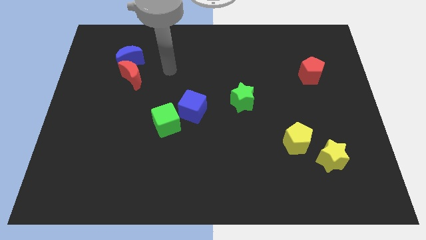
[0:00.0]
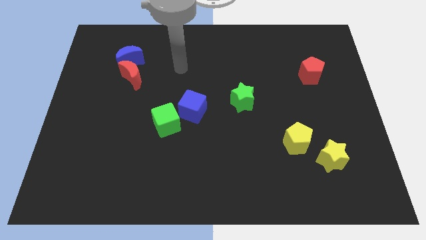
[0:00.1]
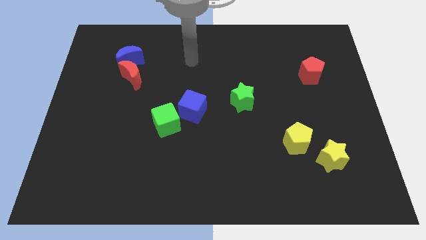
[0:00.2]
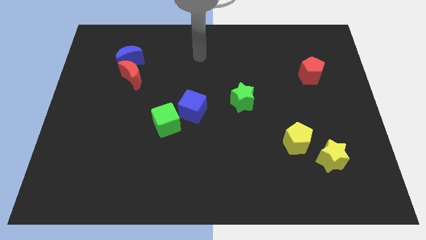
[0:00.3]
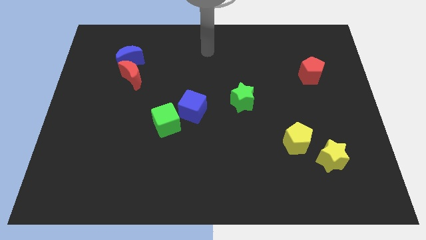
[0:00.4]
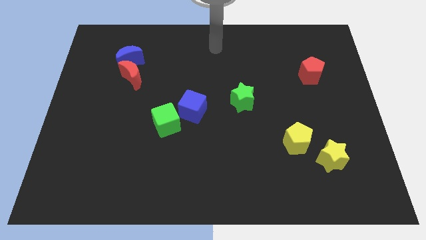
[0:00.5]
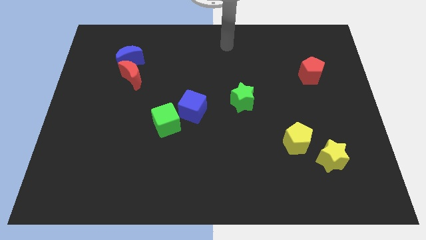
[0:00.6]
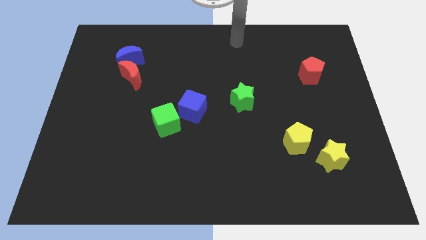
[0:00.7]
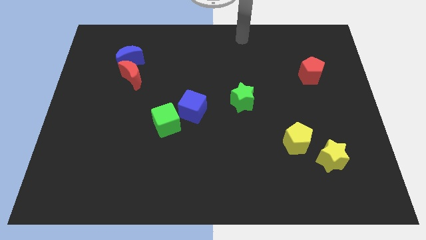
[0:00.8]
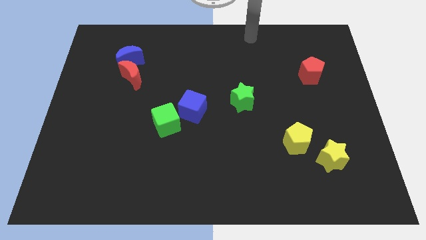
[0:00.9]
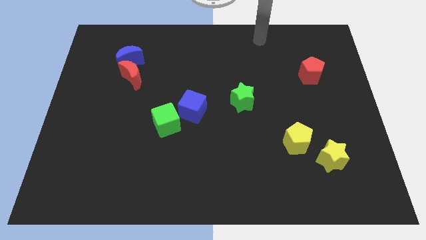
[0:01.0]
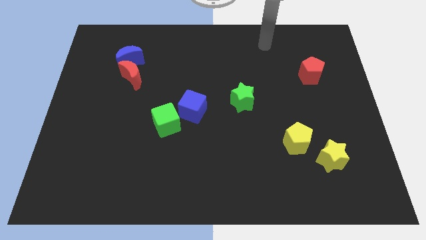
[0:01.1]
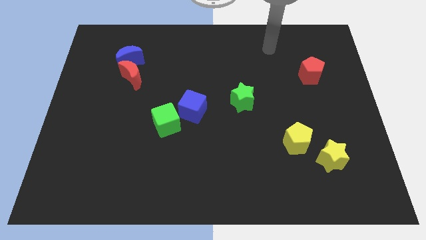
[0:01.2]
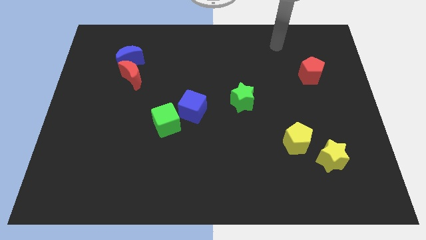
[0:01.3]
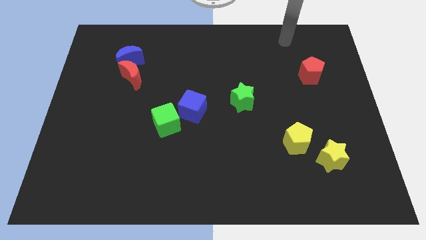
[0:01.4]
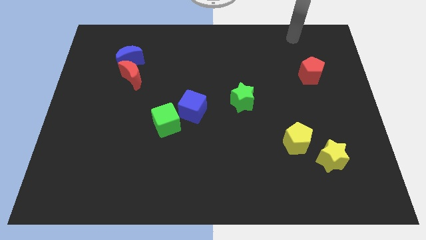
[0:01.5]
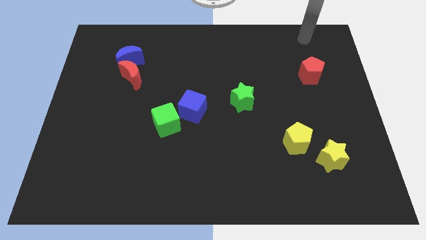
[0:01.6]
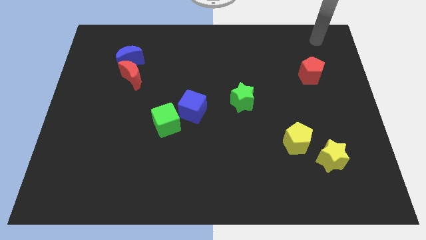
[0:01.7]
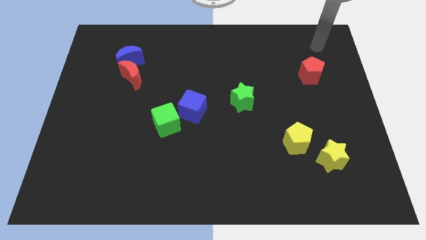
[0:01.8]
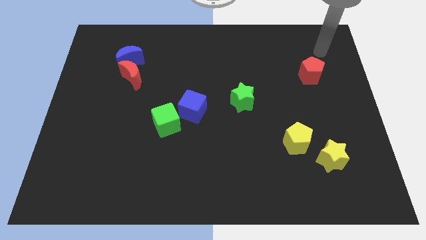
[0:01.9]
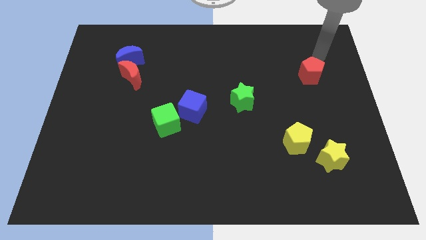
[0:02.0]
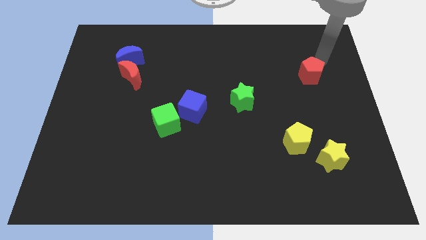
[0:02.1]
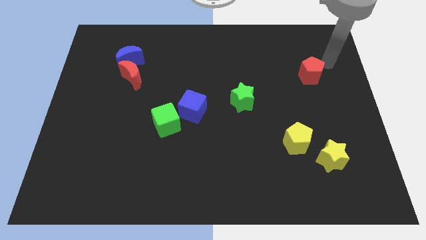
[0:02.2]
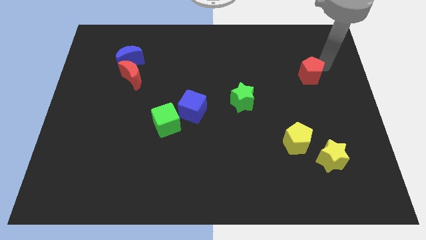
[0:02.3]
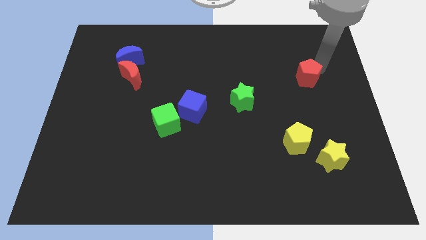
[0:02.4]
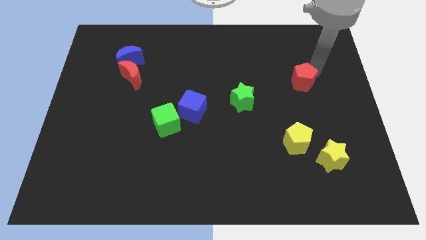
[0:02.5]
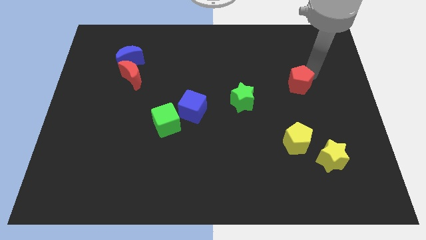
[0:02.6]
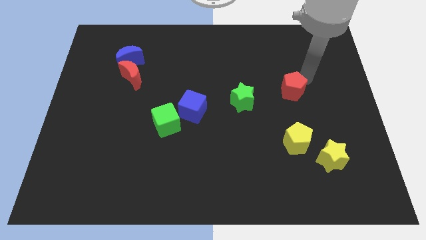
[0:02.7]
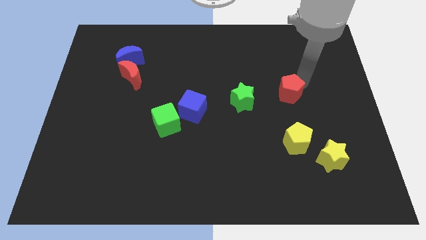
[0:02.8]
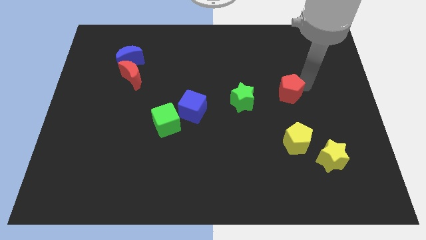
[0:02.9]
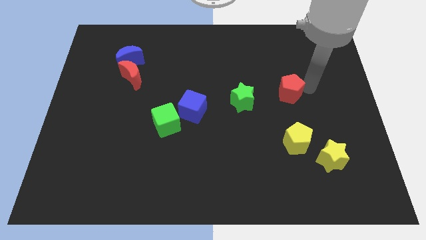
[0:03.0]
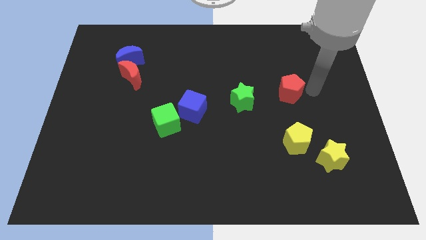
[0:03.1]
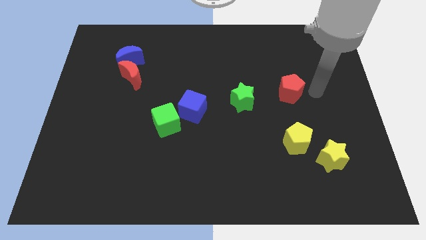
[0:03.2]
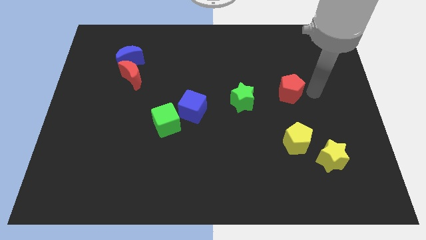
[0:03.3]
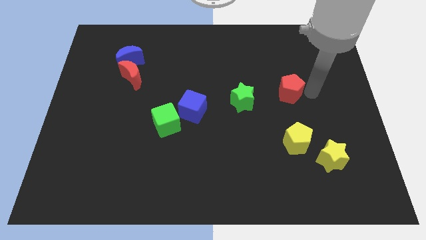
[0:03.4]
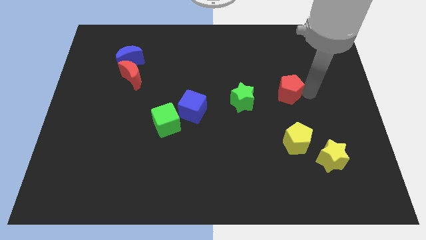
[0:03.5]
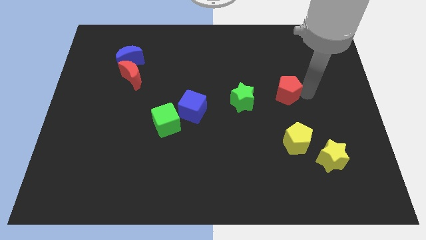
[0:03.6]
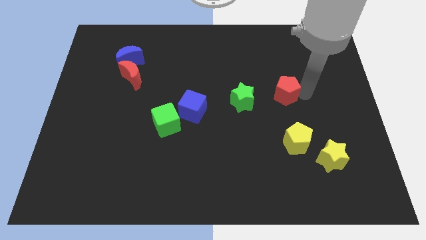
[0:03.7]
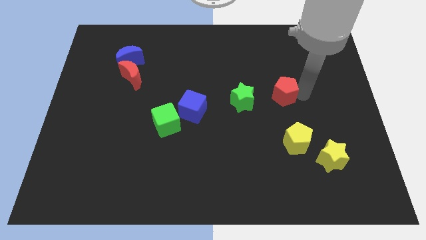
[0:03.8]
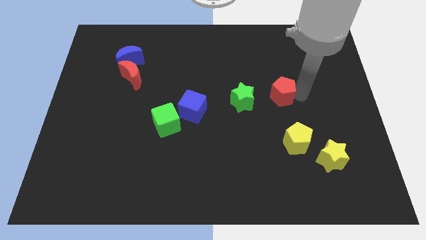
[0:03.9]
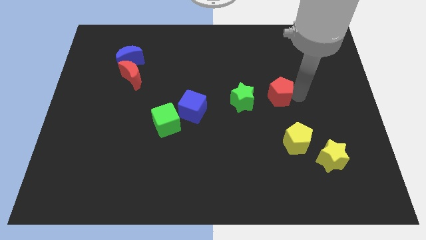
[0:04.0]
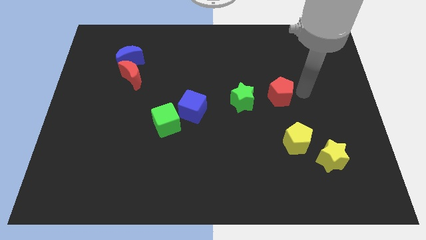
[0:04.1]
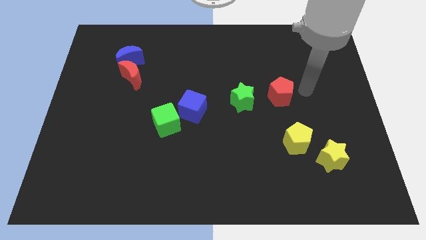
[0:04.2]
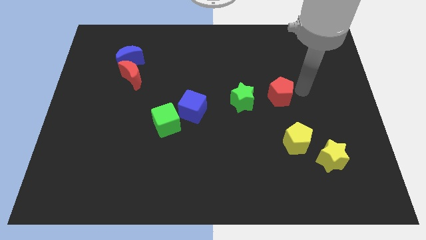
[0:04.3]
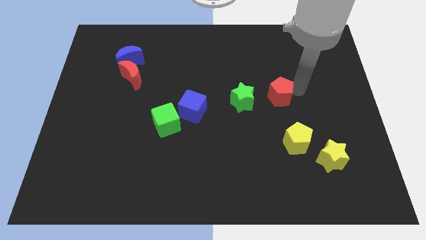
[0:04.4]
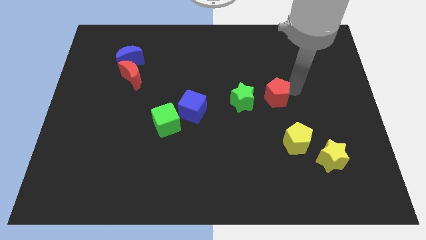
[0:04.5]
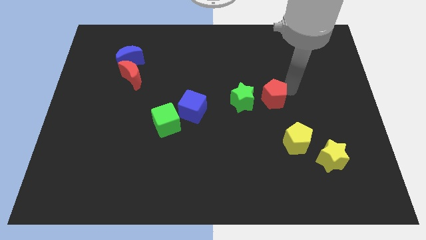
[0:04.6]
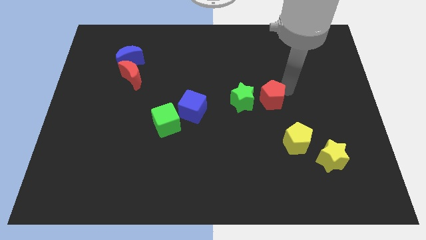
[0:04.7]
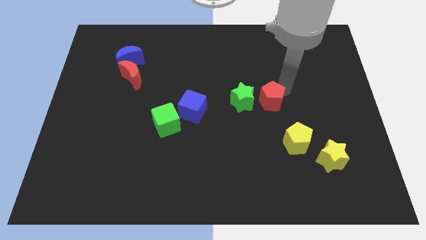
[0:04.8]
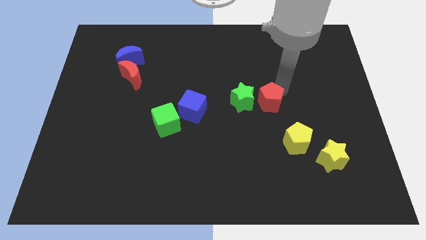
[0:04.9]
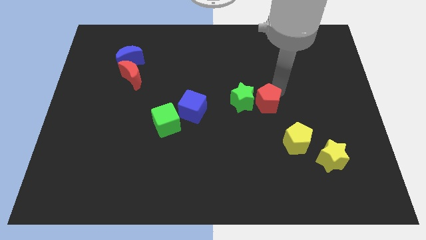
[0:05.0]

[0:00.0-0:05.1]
slide the red pentagon next to the green star

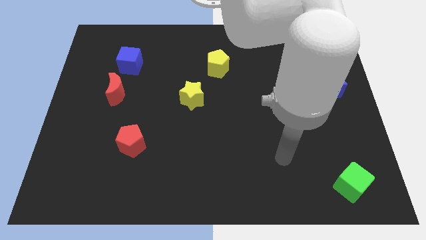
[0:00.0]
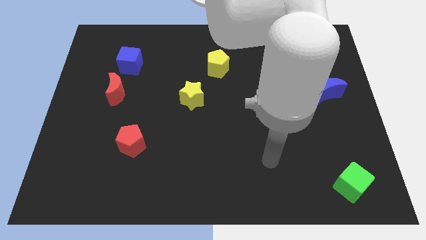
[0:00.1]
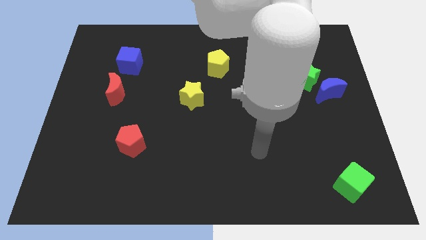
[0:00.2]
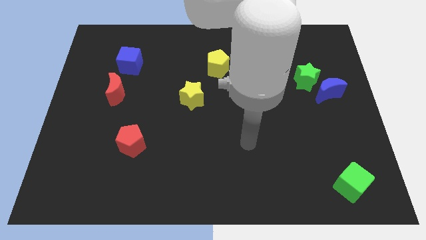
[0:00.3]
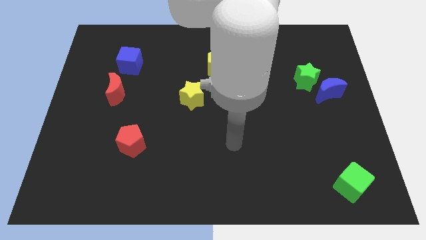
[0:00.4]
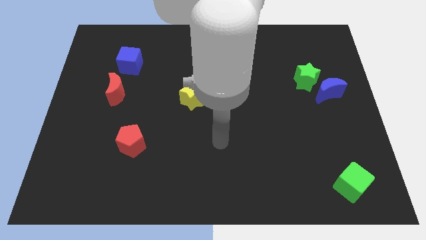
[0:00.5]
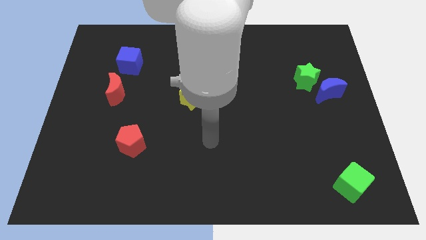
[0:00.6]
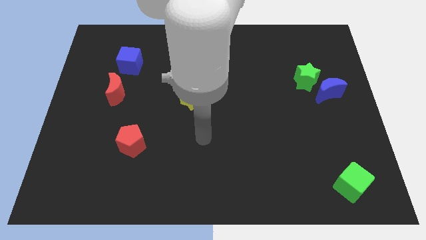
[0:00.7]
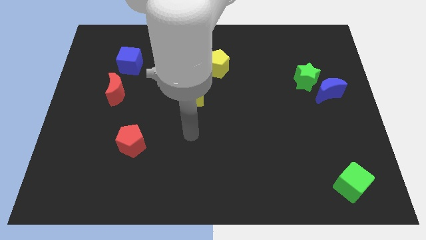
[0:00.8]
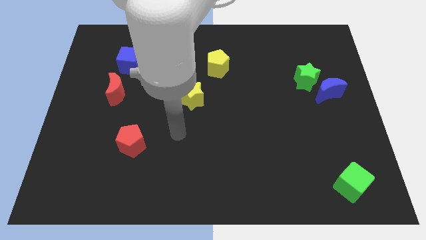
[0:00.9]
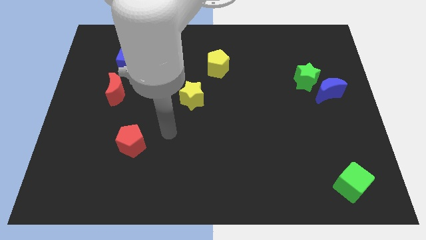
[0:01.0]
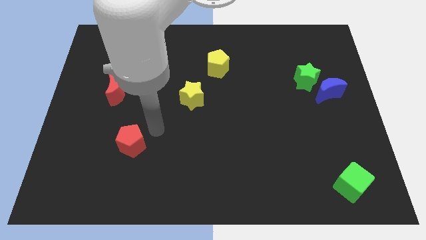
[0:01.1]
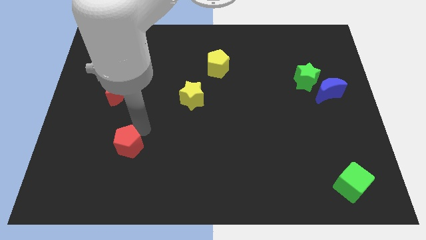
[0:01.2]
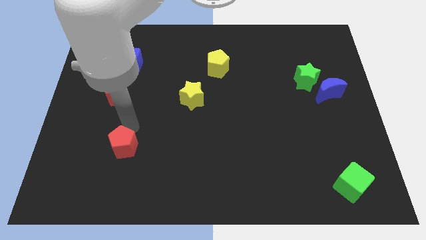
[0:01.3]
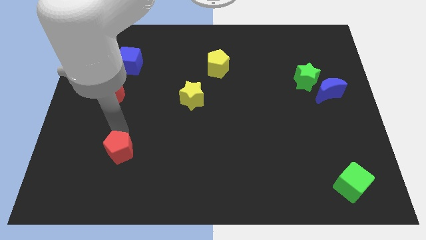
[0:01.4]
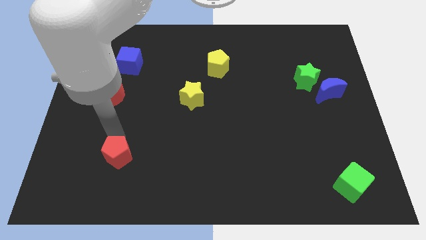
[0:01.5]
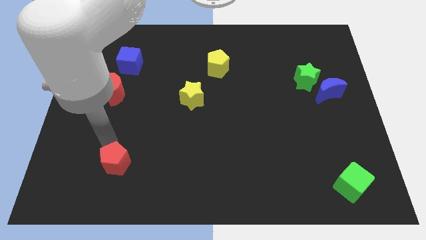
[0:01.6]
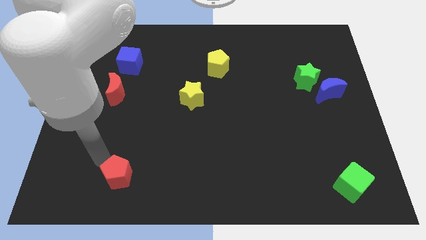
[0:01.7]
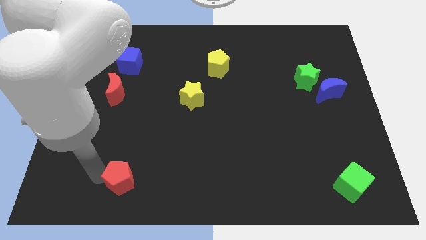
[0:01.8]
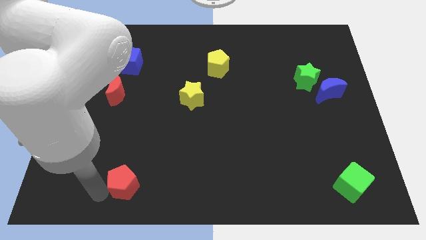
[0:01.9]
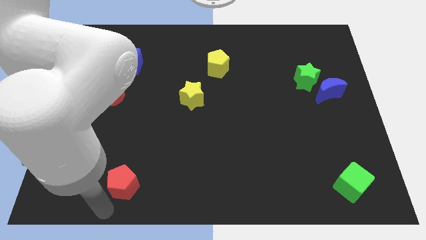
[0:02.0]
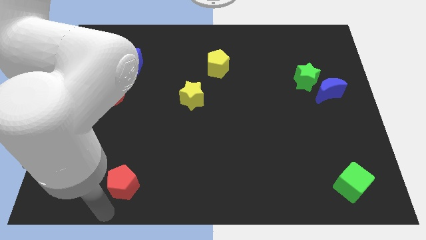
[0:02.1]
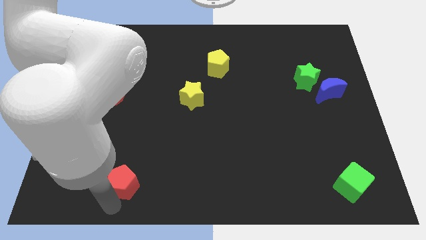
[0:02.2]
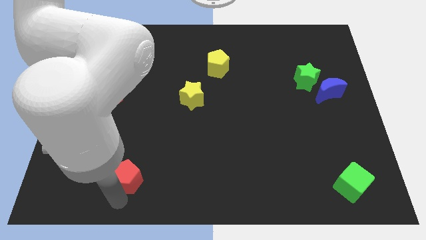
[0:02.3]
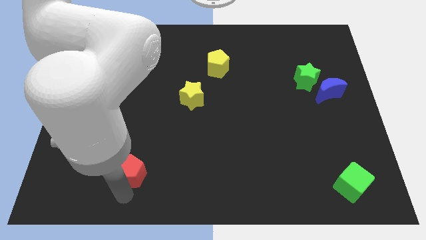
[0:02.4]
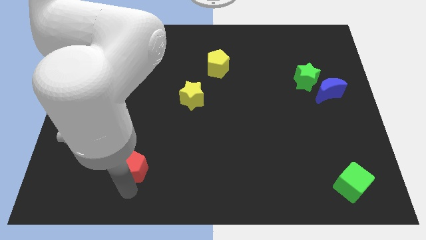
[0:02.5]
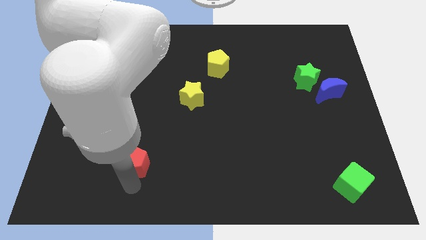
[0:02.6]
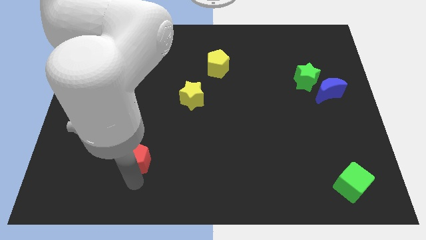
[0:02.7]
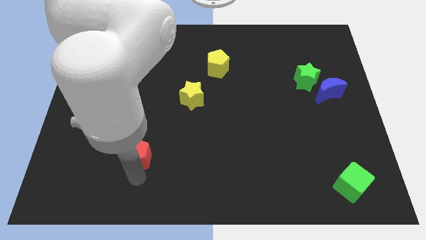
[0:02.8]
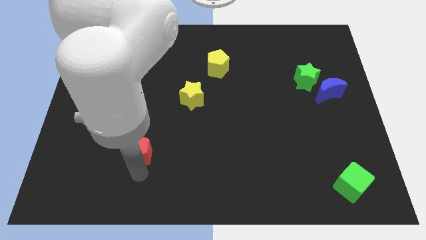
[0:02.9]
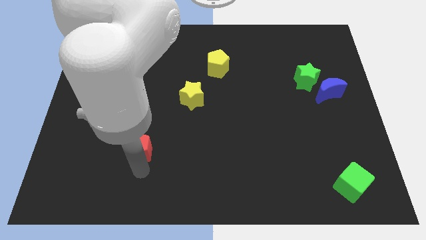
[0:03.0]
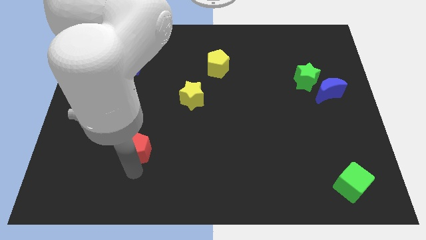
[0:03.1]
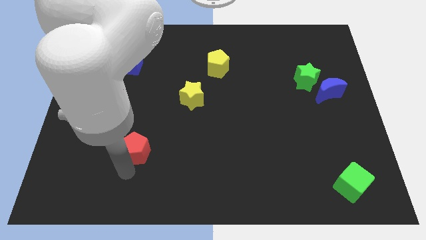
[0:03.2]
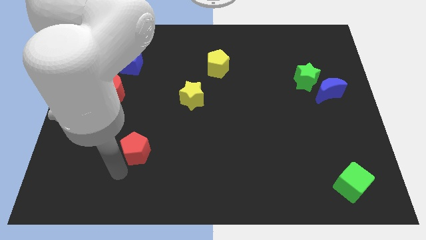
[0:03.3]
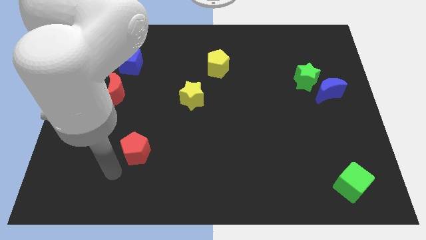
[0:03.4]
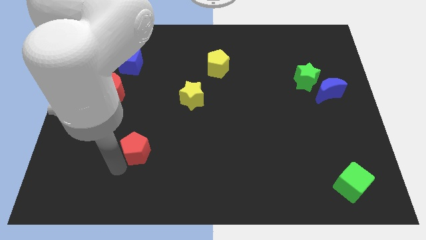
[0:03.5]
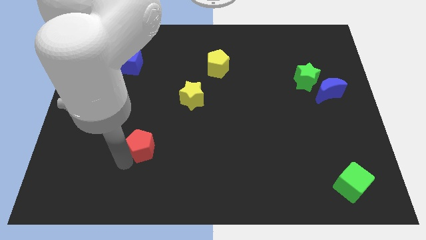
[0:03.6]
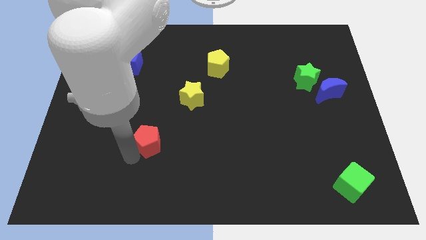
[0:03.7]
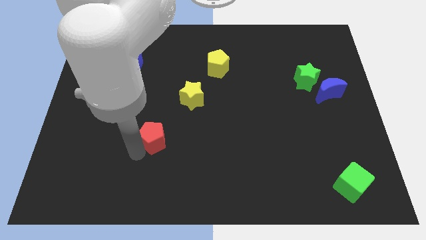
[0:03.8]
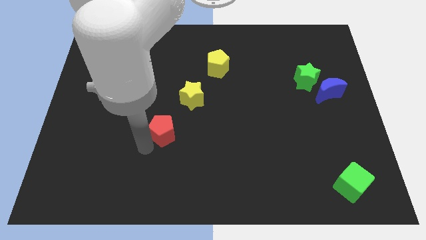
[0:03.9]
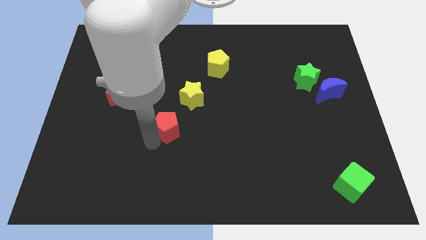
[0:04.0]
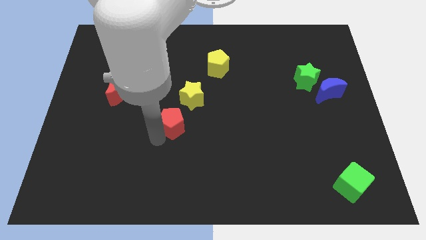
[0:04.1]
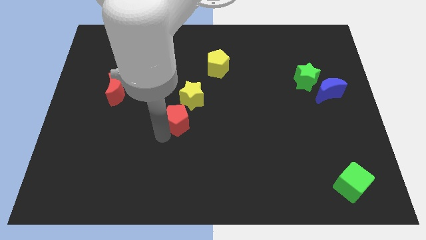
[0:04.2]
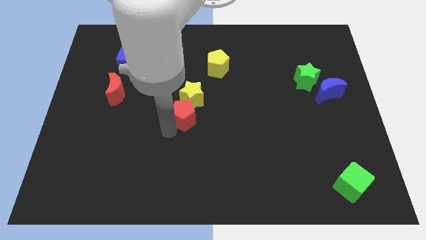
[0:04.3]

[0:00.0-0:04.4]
move the red pentagon to the yellow star
